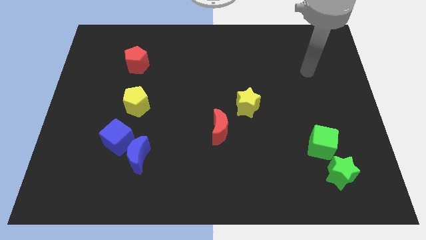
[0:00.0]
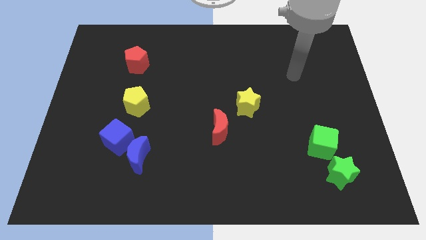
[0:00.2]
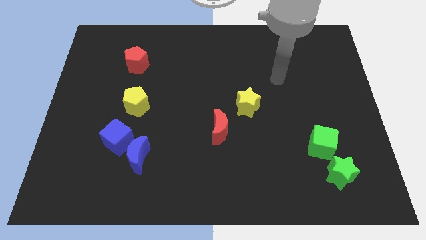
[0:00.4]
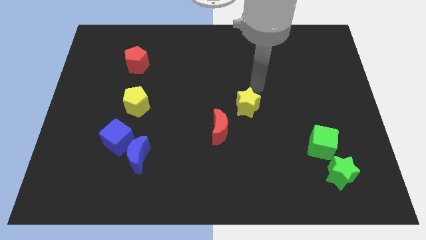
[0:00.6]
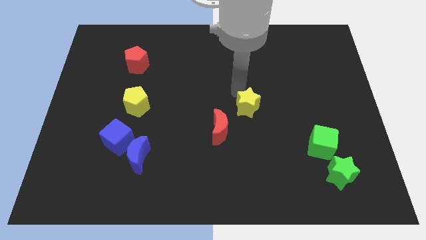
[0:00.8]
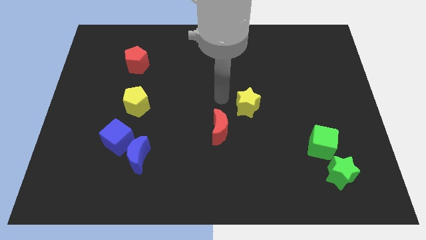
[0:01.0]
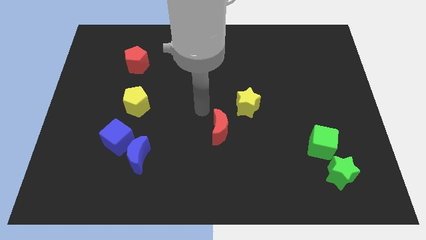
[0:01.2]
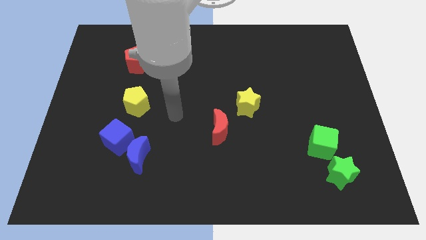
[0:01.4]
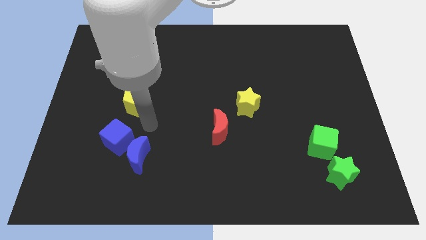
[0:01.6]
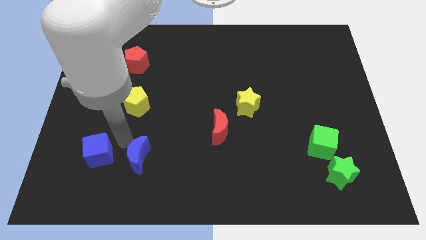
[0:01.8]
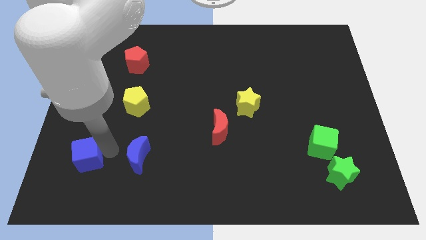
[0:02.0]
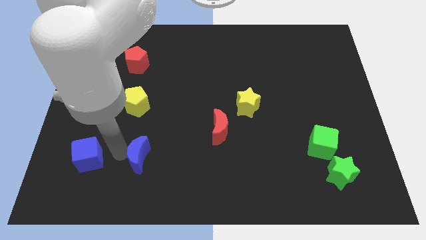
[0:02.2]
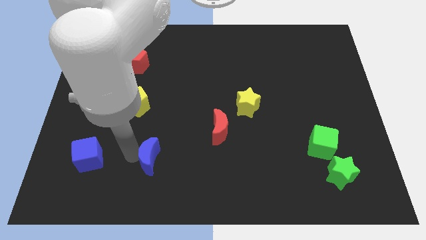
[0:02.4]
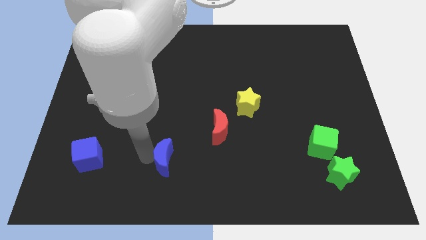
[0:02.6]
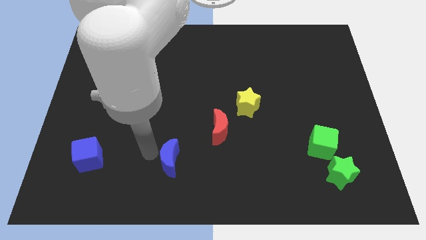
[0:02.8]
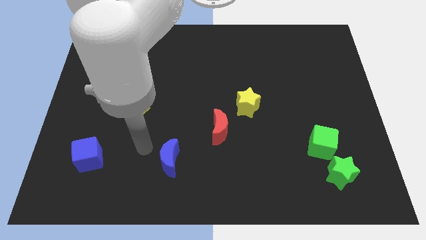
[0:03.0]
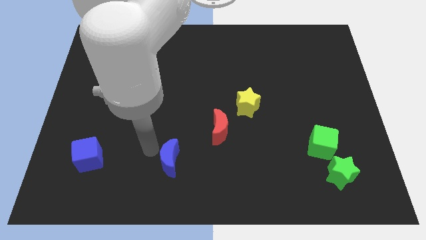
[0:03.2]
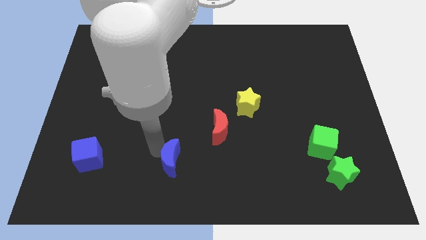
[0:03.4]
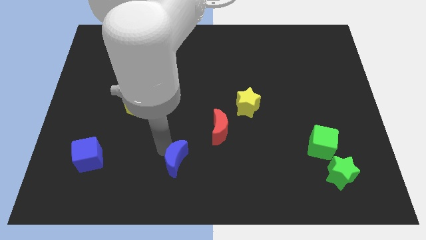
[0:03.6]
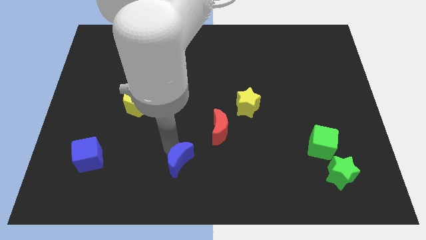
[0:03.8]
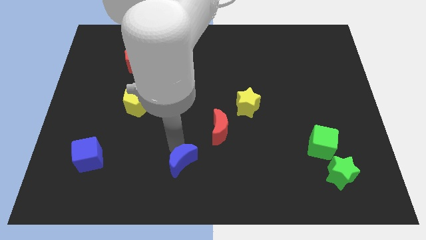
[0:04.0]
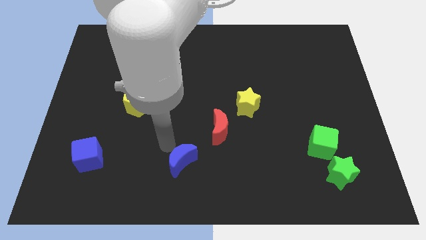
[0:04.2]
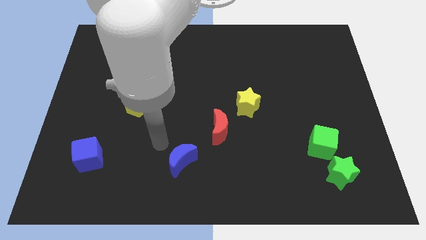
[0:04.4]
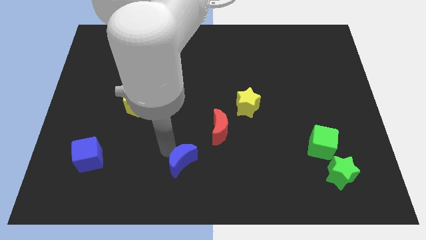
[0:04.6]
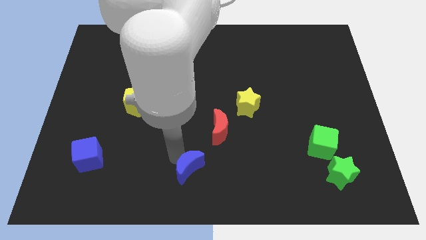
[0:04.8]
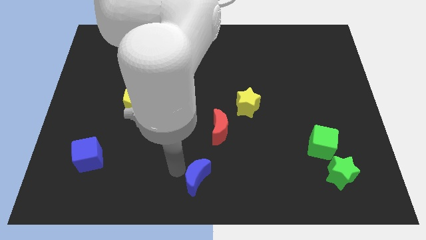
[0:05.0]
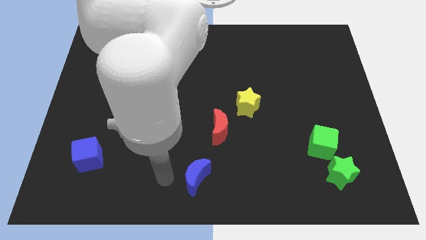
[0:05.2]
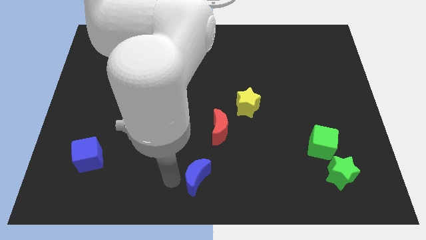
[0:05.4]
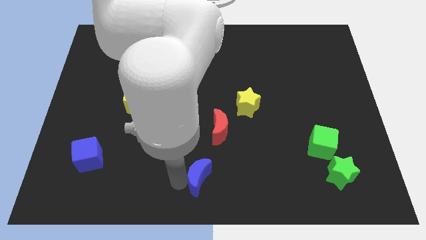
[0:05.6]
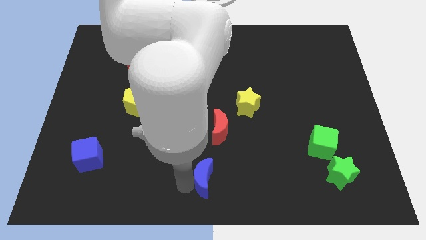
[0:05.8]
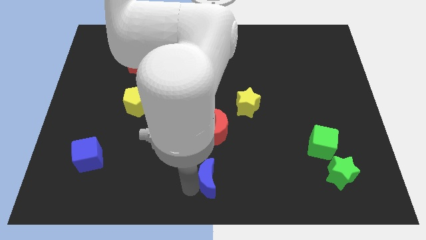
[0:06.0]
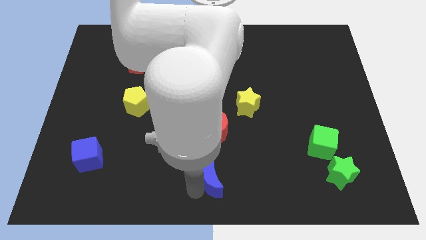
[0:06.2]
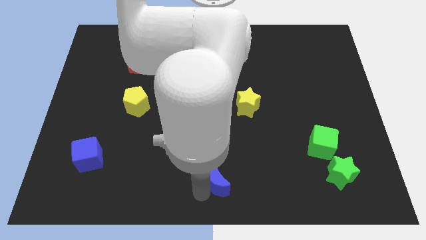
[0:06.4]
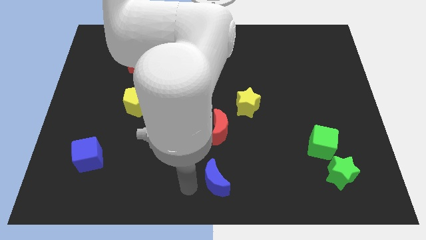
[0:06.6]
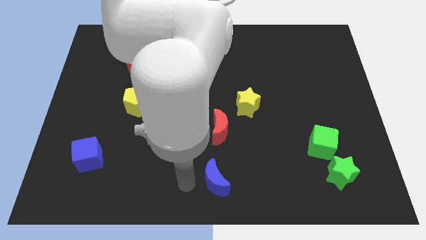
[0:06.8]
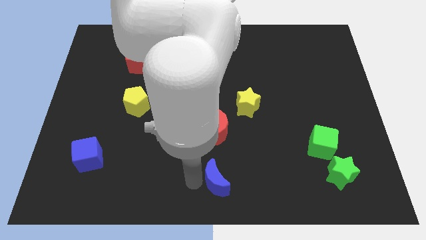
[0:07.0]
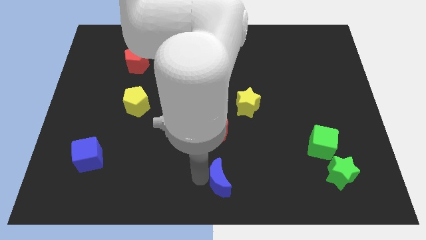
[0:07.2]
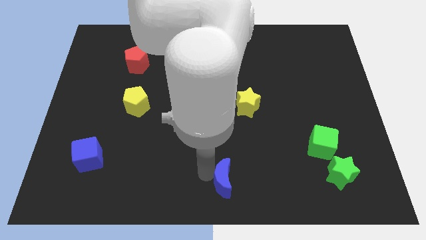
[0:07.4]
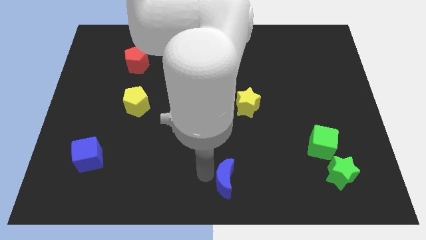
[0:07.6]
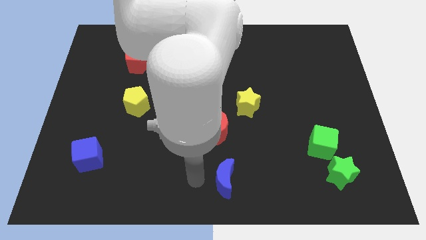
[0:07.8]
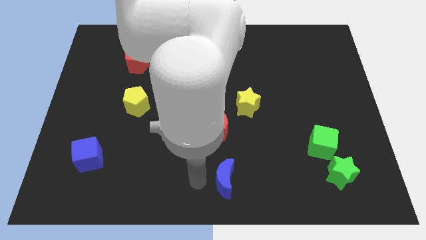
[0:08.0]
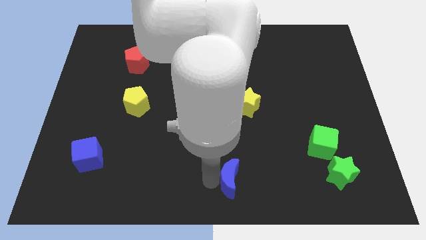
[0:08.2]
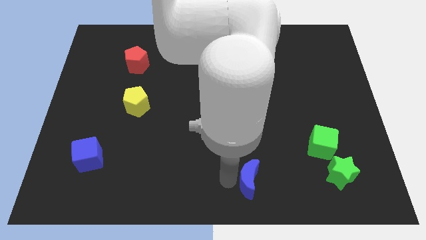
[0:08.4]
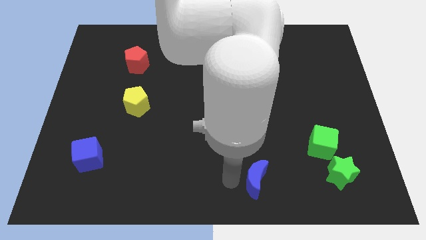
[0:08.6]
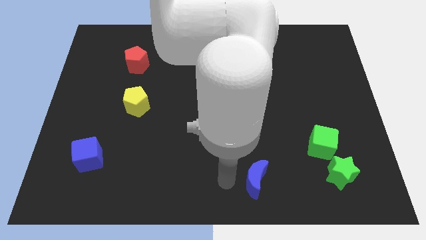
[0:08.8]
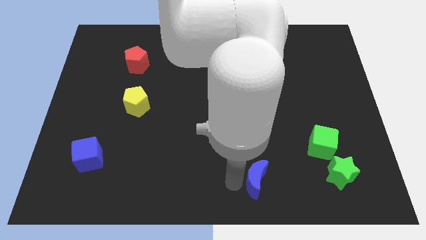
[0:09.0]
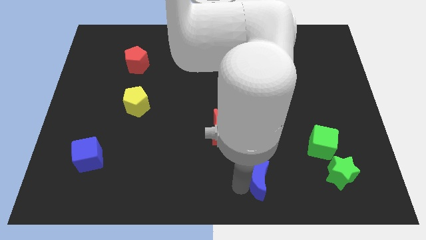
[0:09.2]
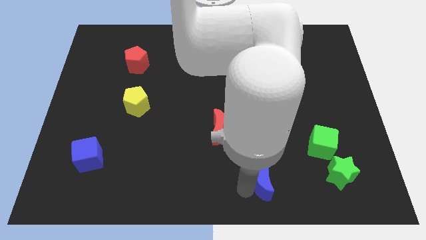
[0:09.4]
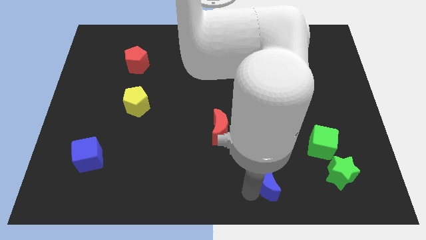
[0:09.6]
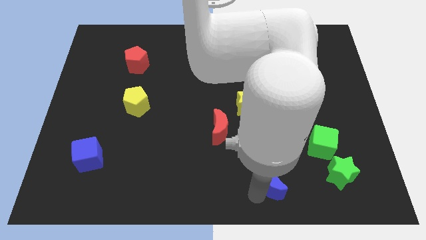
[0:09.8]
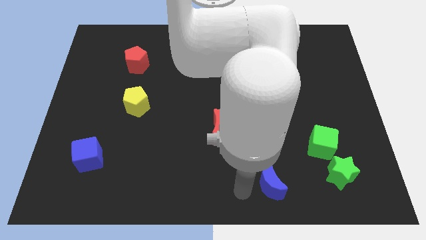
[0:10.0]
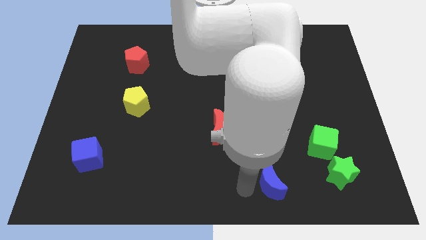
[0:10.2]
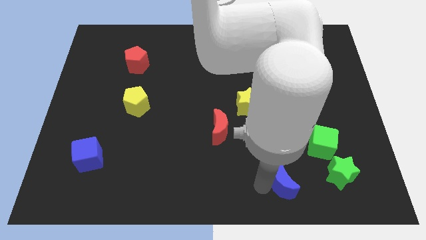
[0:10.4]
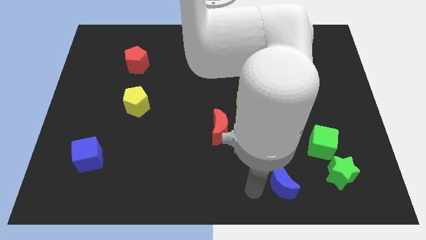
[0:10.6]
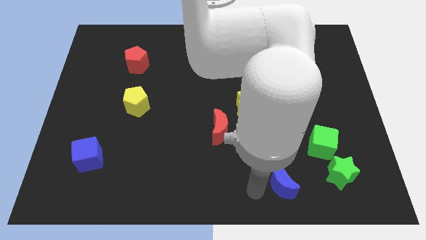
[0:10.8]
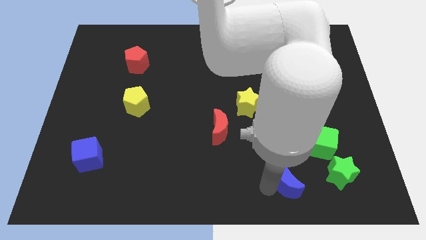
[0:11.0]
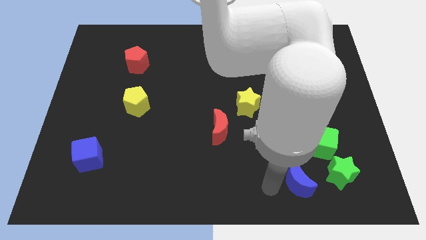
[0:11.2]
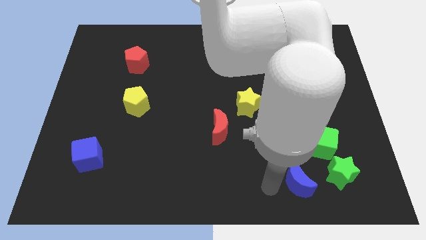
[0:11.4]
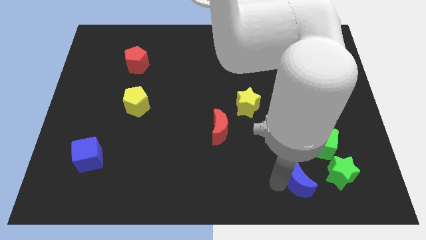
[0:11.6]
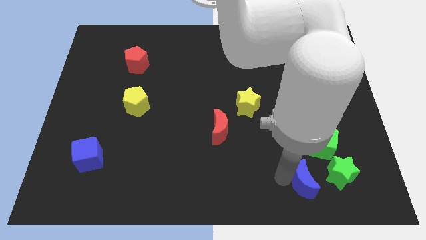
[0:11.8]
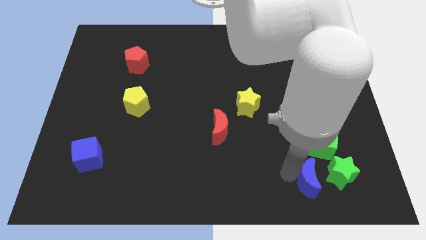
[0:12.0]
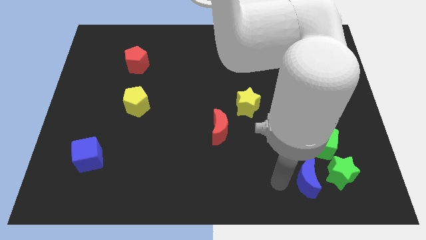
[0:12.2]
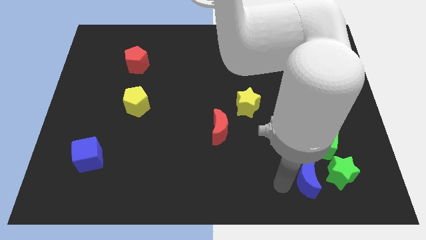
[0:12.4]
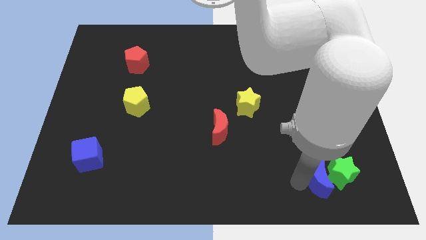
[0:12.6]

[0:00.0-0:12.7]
push the blue moon close to the green star

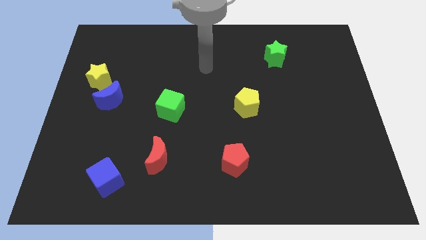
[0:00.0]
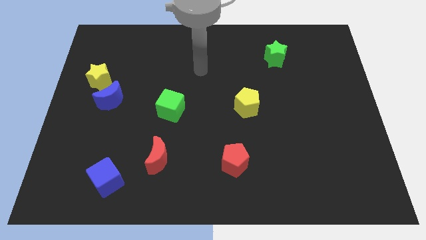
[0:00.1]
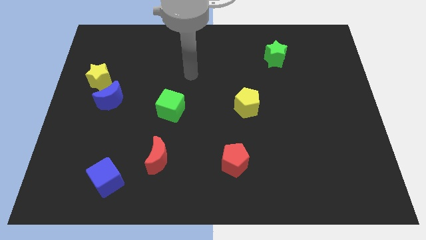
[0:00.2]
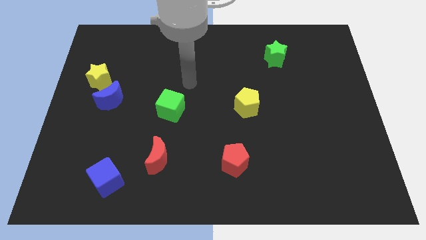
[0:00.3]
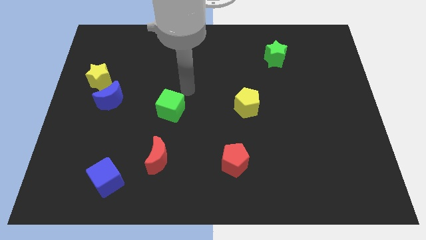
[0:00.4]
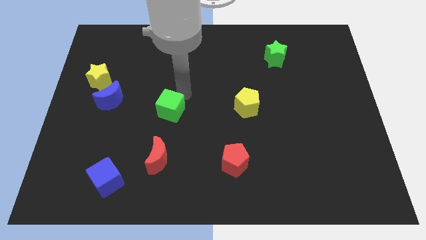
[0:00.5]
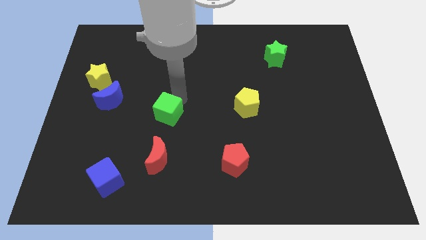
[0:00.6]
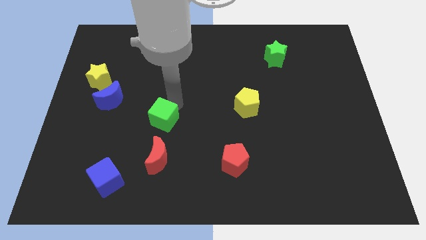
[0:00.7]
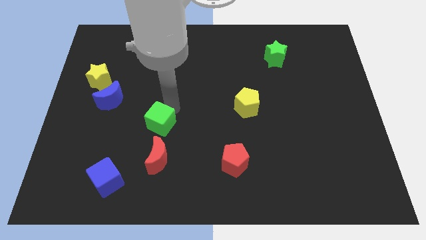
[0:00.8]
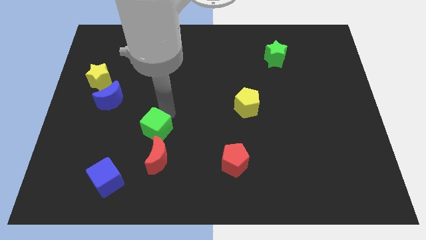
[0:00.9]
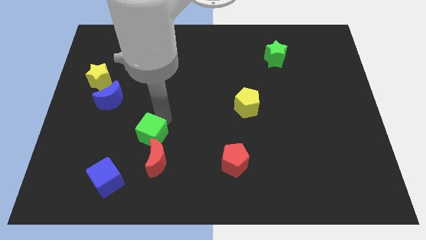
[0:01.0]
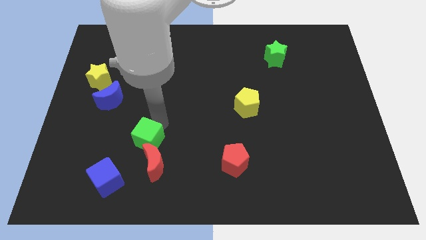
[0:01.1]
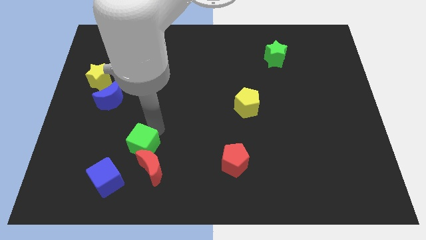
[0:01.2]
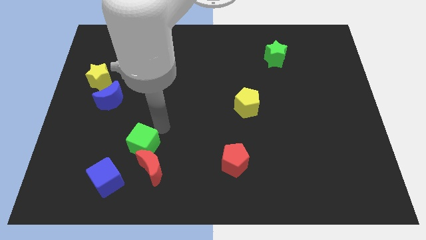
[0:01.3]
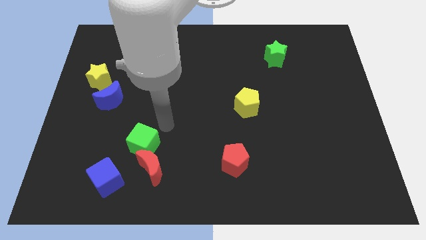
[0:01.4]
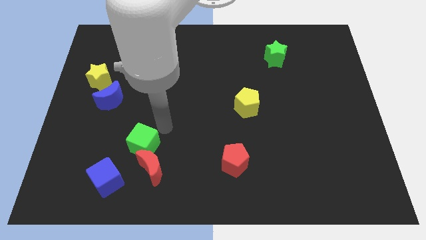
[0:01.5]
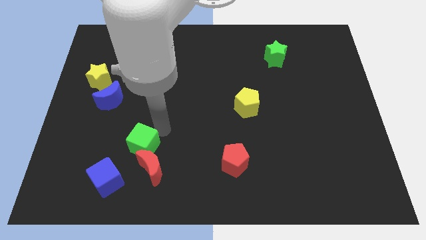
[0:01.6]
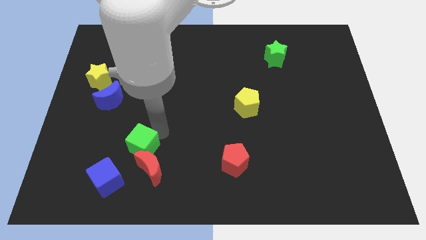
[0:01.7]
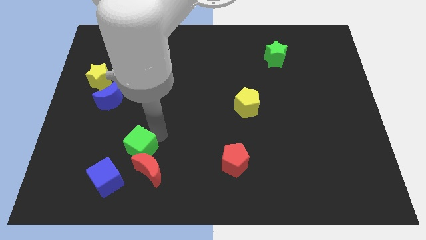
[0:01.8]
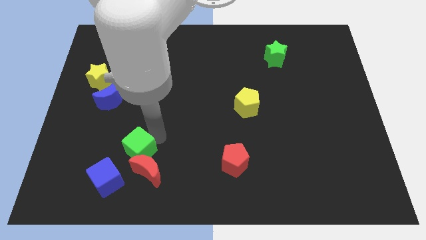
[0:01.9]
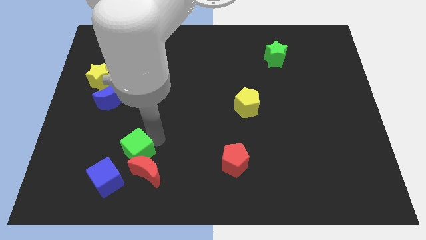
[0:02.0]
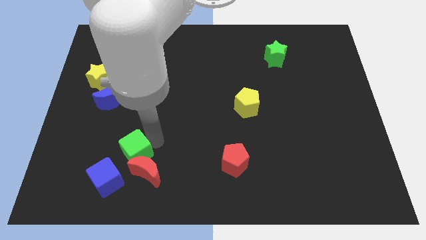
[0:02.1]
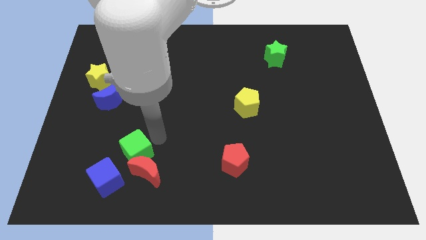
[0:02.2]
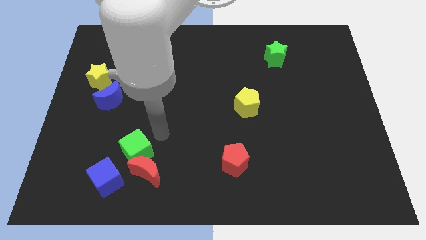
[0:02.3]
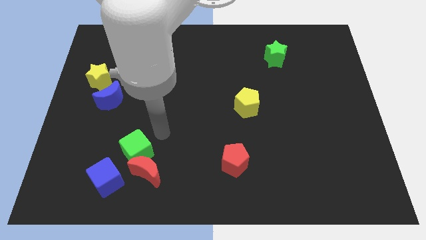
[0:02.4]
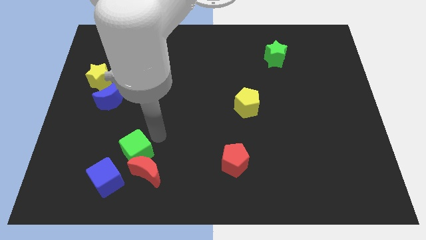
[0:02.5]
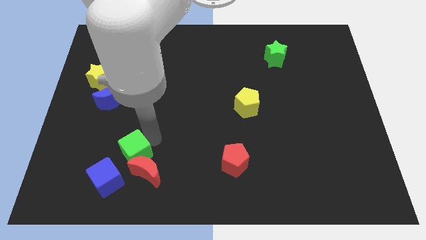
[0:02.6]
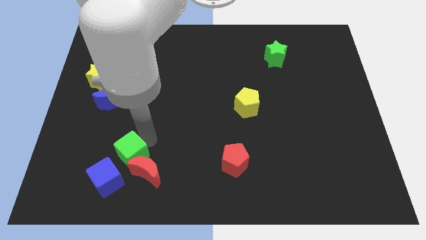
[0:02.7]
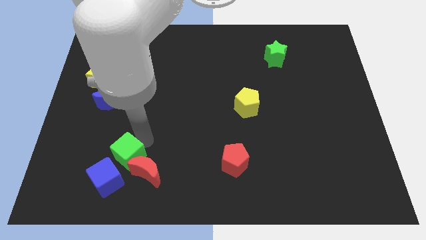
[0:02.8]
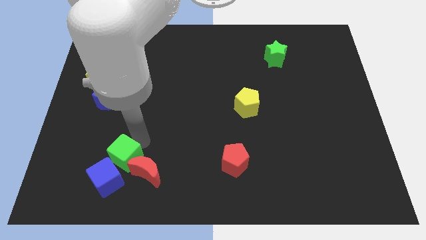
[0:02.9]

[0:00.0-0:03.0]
push the green cube next to the blue cube

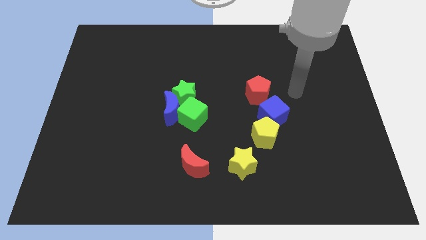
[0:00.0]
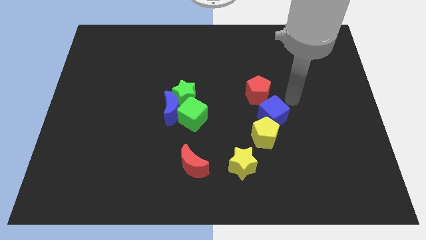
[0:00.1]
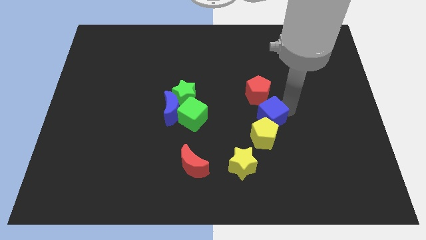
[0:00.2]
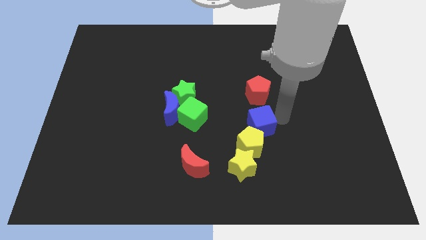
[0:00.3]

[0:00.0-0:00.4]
put the yellow pentagon to the yellow star
